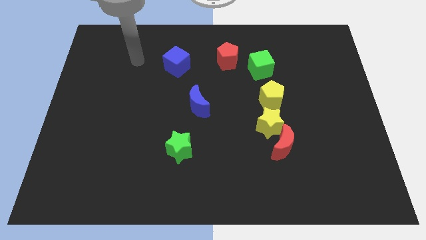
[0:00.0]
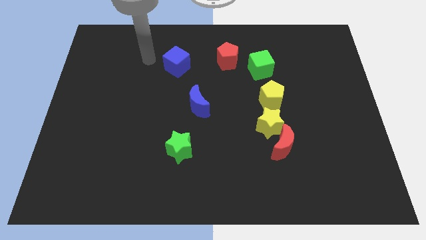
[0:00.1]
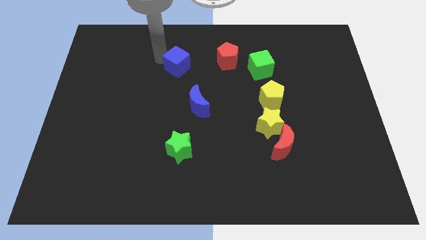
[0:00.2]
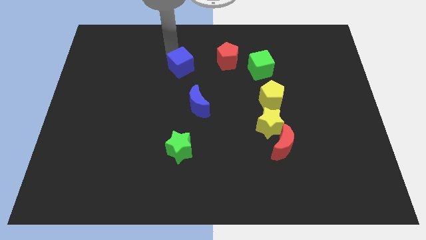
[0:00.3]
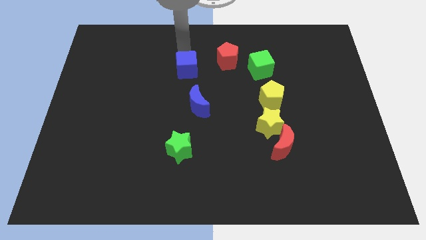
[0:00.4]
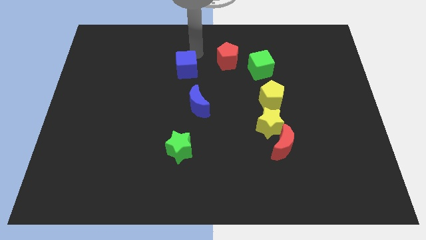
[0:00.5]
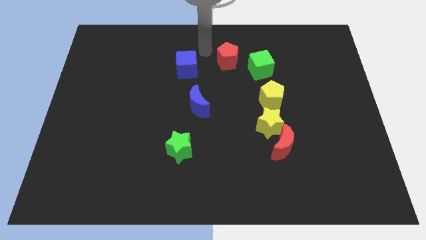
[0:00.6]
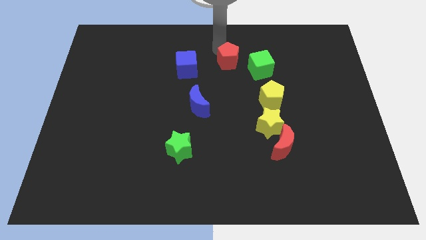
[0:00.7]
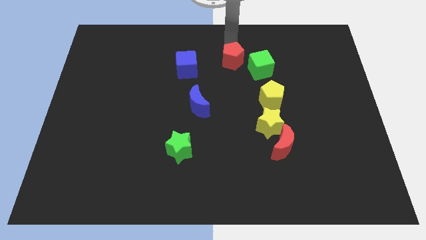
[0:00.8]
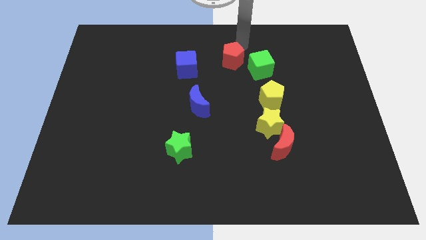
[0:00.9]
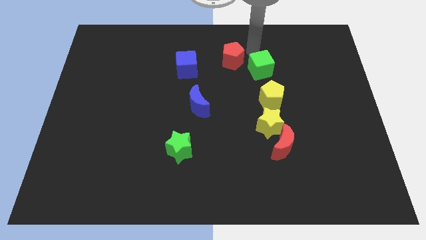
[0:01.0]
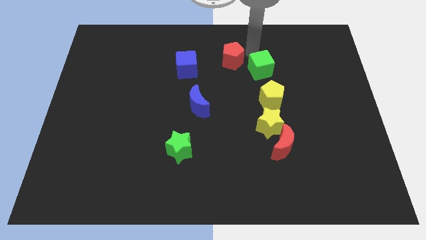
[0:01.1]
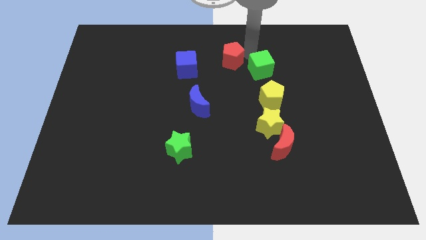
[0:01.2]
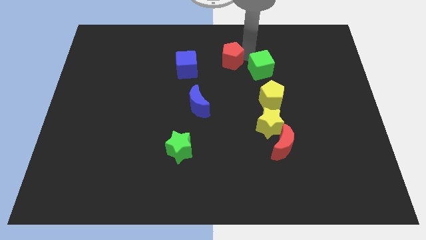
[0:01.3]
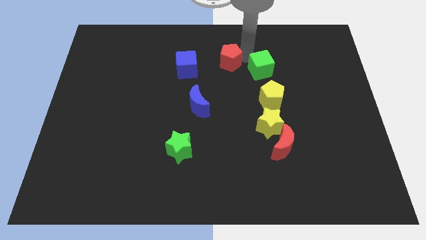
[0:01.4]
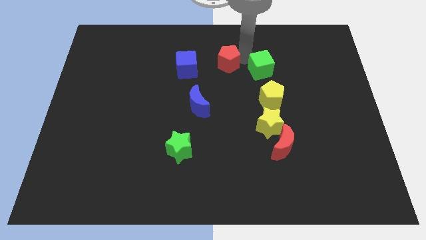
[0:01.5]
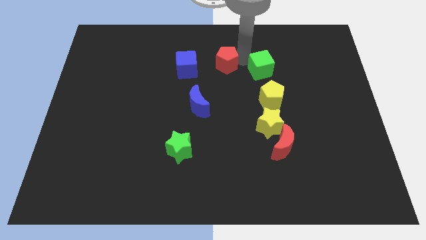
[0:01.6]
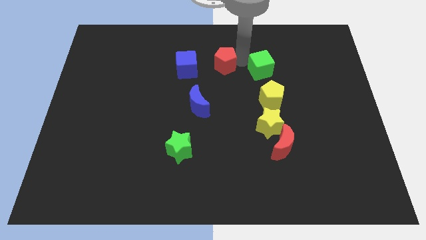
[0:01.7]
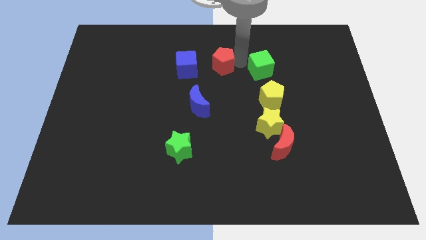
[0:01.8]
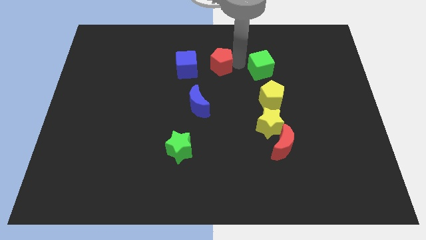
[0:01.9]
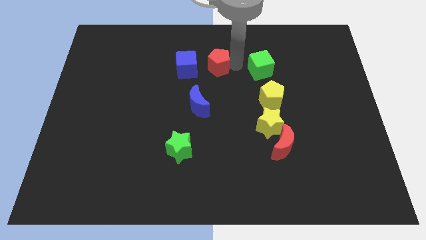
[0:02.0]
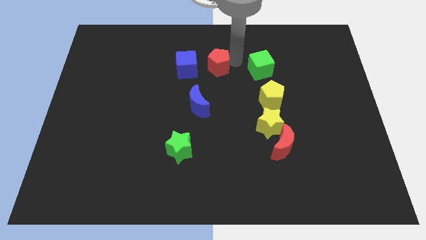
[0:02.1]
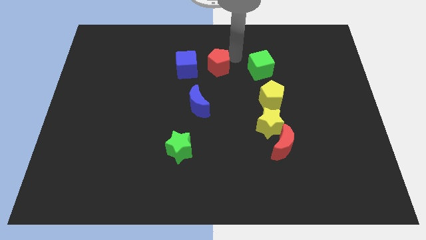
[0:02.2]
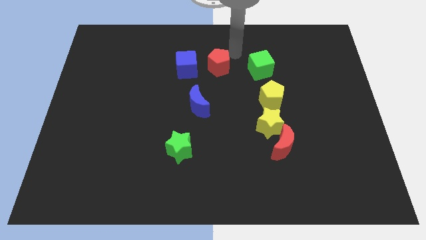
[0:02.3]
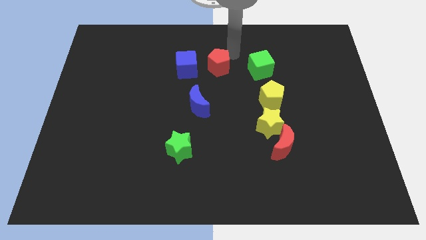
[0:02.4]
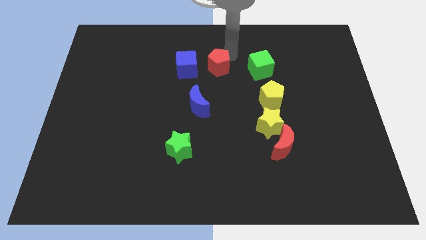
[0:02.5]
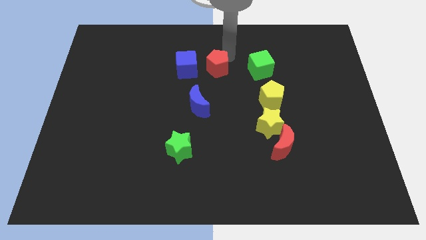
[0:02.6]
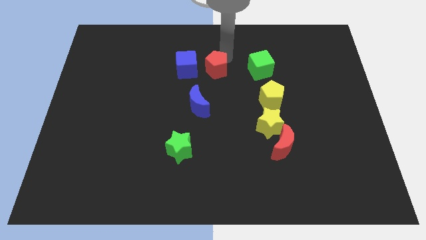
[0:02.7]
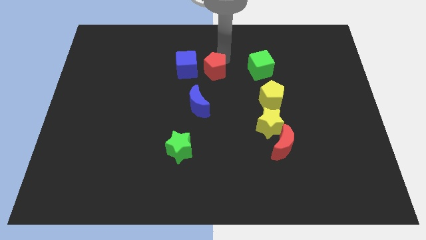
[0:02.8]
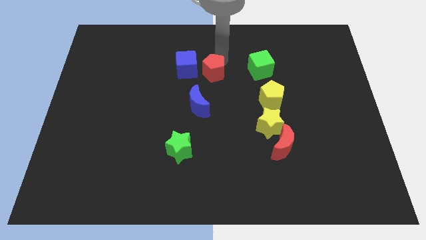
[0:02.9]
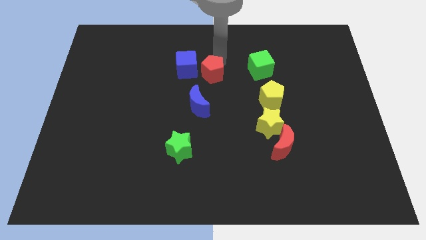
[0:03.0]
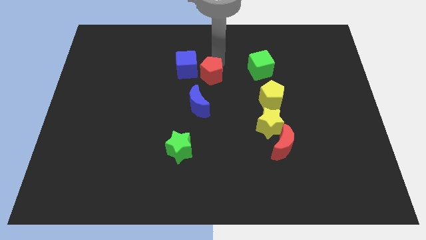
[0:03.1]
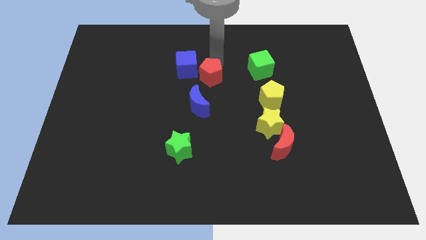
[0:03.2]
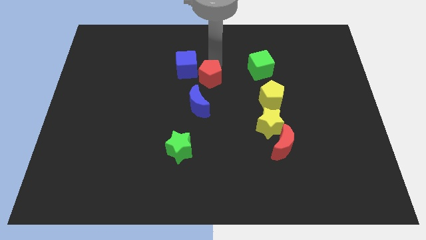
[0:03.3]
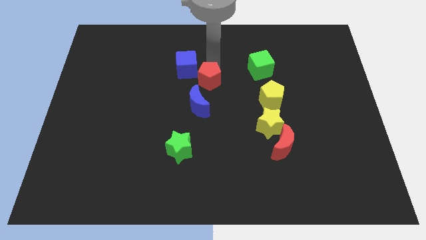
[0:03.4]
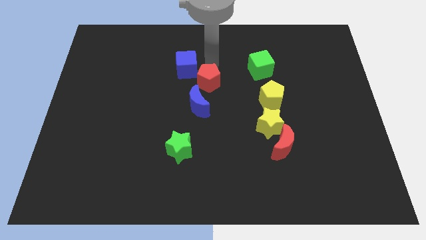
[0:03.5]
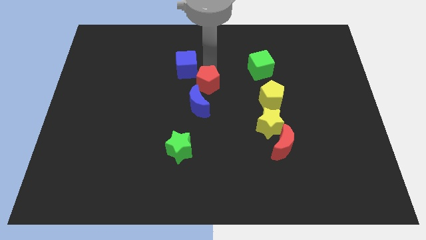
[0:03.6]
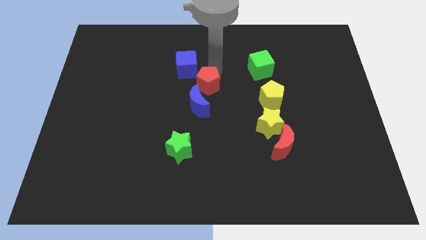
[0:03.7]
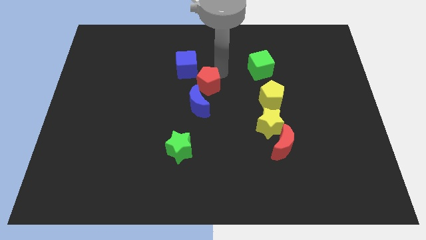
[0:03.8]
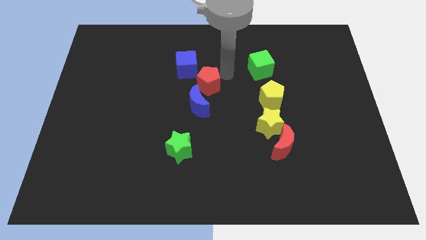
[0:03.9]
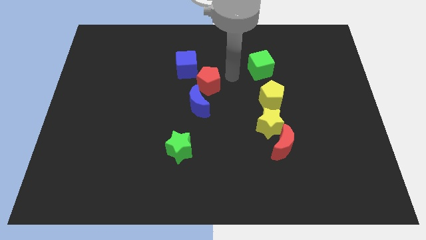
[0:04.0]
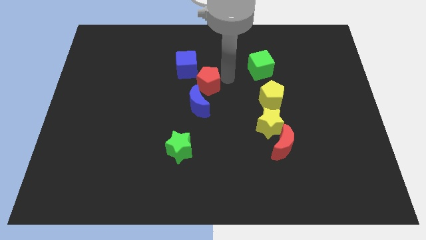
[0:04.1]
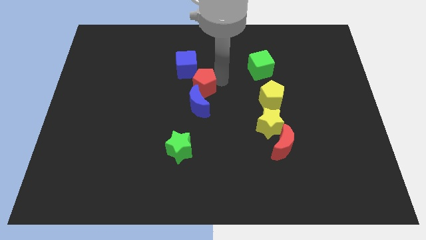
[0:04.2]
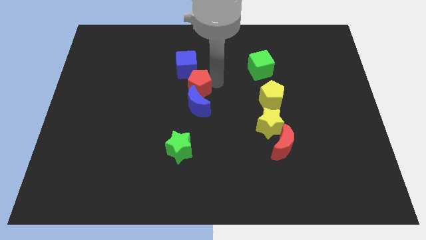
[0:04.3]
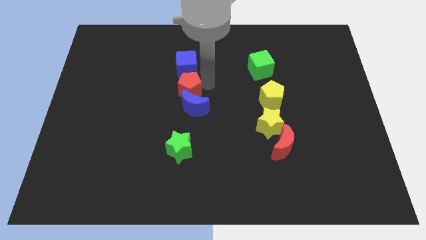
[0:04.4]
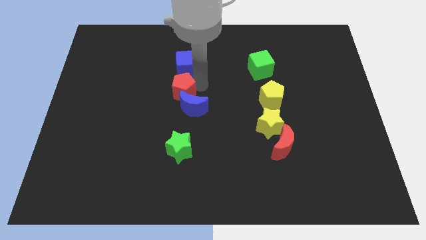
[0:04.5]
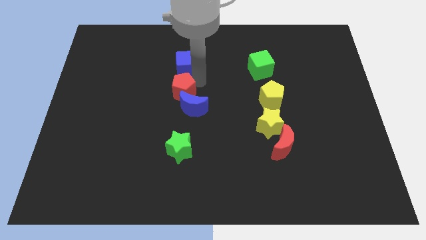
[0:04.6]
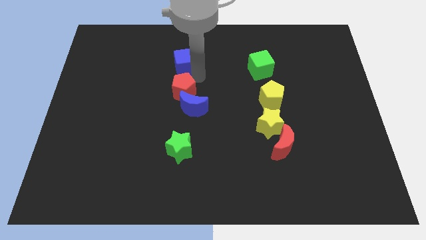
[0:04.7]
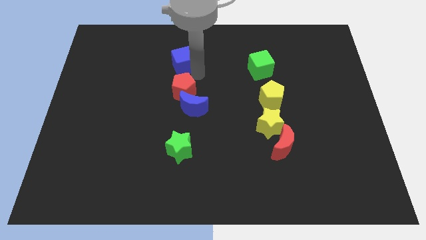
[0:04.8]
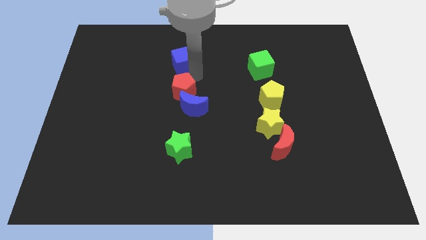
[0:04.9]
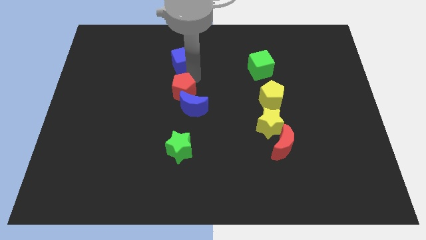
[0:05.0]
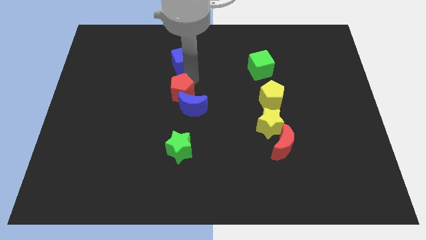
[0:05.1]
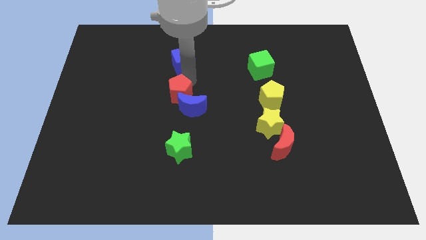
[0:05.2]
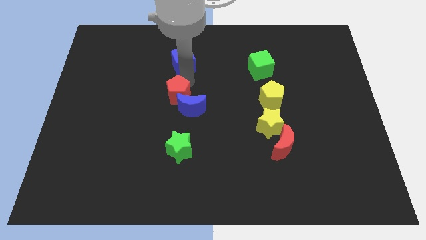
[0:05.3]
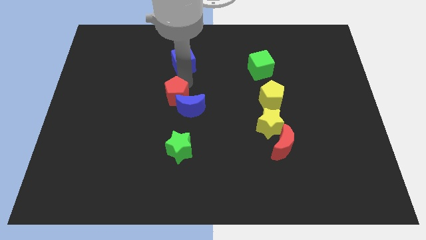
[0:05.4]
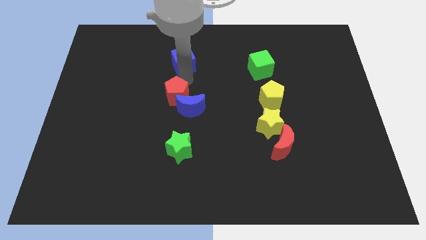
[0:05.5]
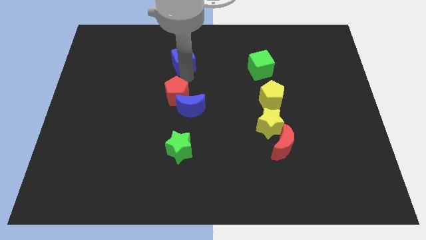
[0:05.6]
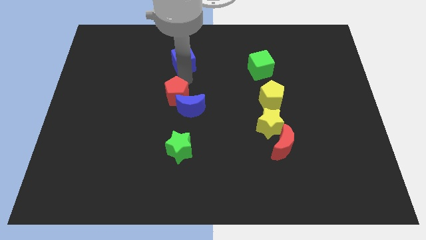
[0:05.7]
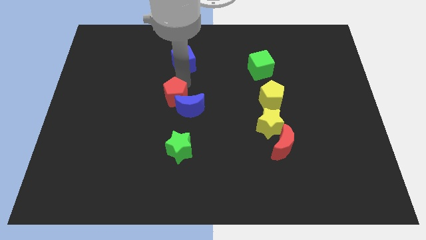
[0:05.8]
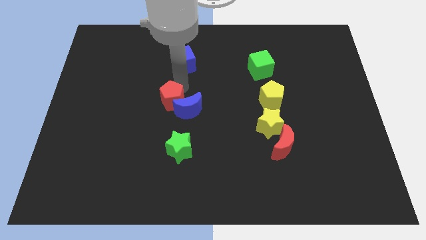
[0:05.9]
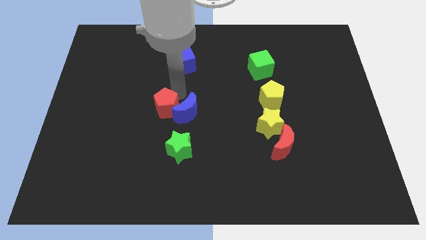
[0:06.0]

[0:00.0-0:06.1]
push the red pentagon downwards and left

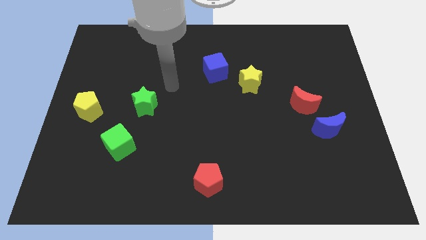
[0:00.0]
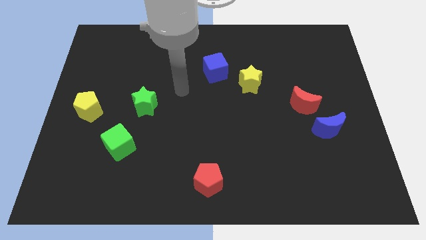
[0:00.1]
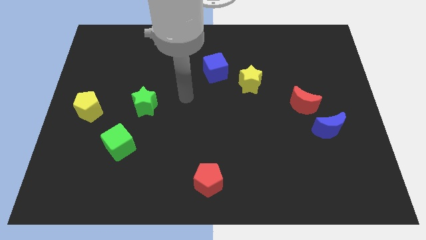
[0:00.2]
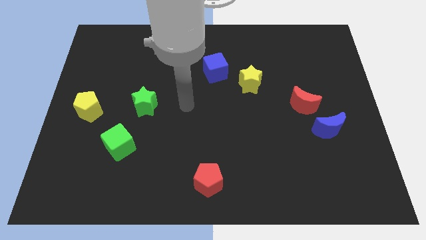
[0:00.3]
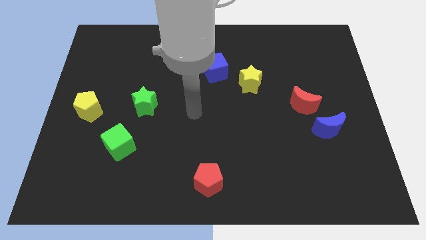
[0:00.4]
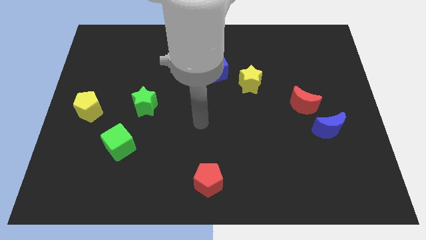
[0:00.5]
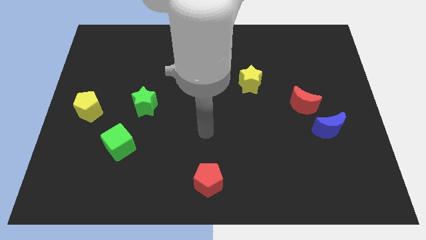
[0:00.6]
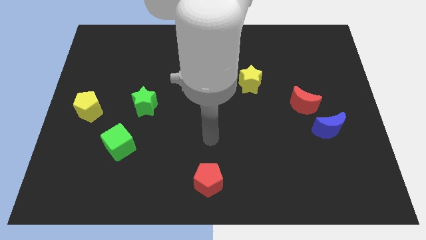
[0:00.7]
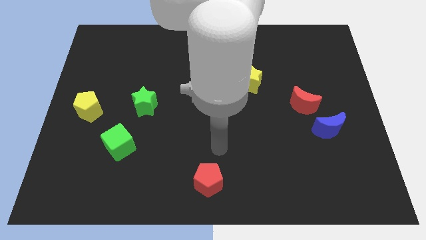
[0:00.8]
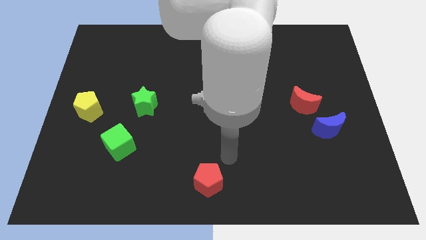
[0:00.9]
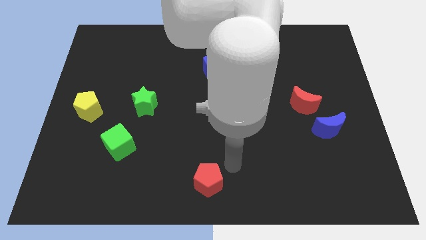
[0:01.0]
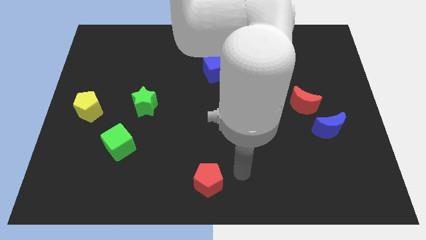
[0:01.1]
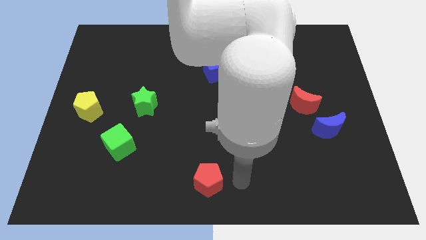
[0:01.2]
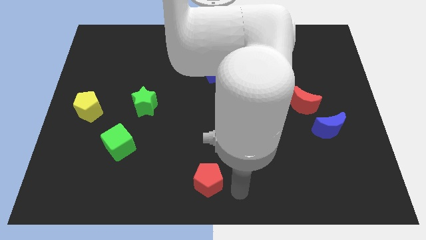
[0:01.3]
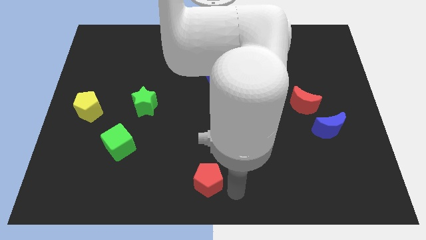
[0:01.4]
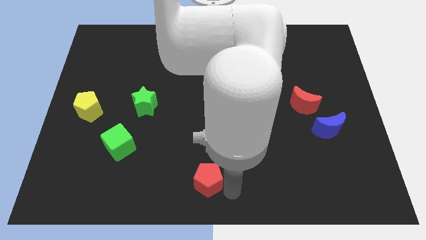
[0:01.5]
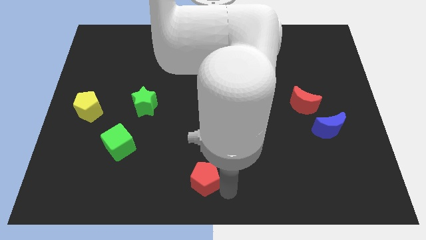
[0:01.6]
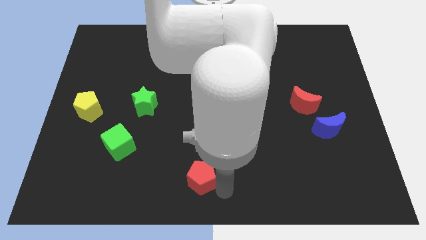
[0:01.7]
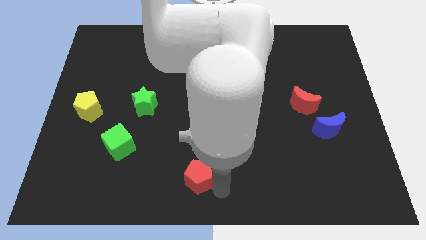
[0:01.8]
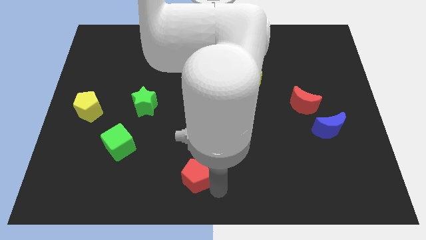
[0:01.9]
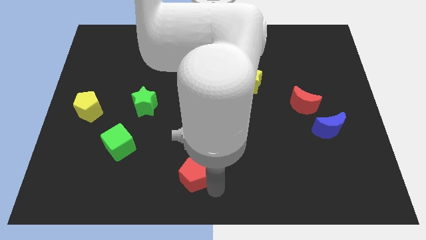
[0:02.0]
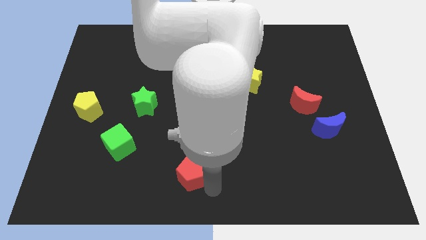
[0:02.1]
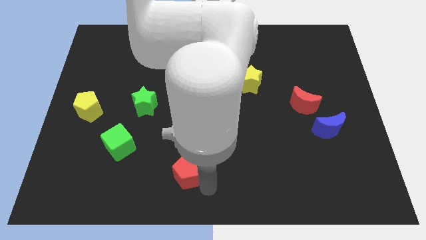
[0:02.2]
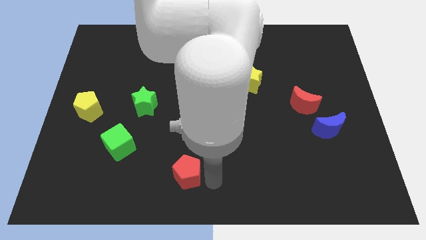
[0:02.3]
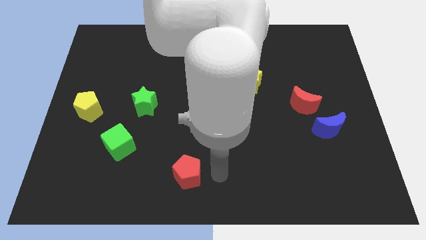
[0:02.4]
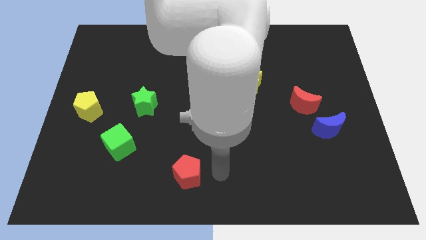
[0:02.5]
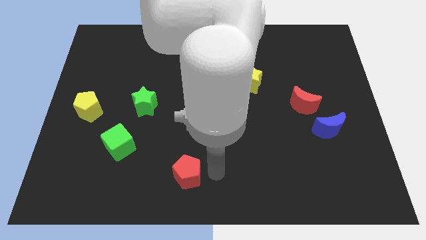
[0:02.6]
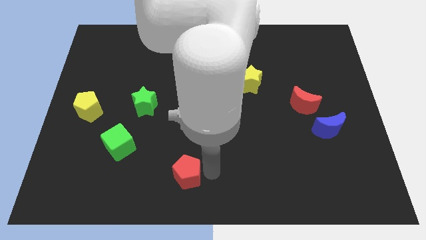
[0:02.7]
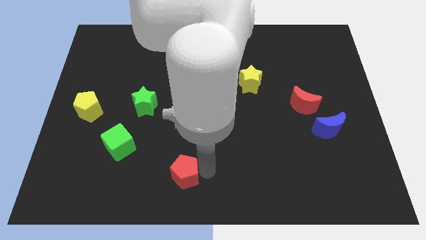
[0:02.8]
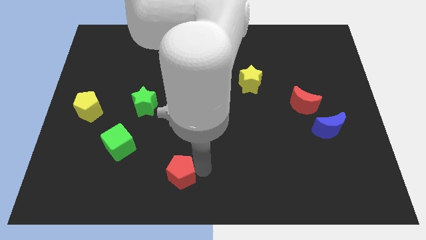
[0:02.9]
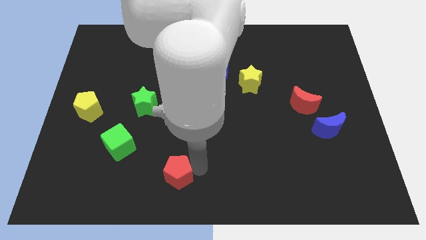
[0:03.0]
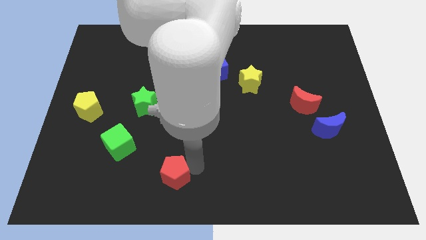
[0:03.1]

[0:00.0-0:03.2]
slide the red pentagon to the left a bit
